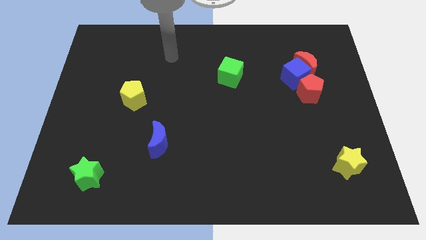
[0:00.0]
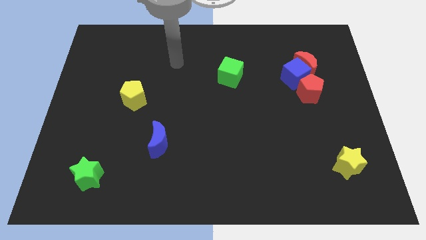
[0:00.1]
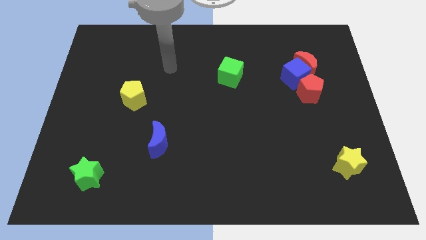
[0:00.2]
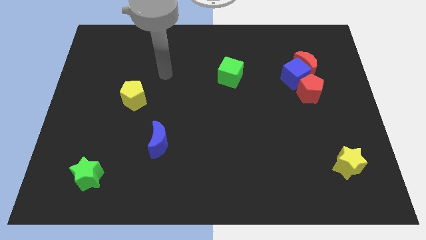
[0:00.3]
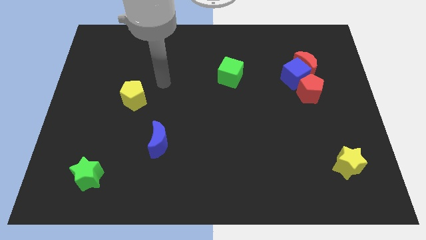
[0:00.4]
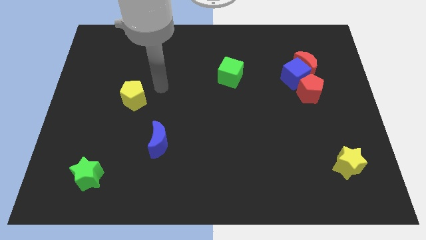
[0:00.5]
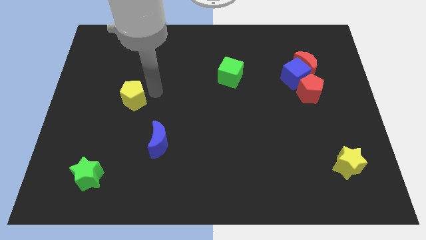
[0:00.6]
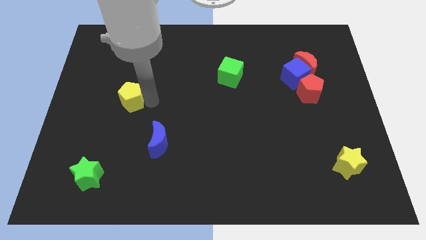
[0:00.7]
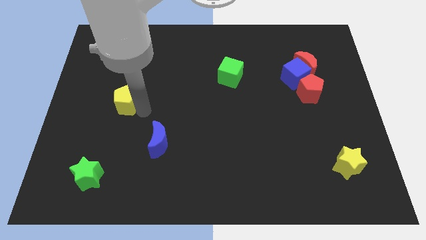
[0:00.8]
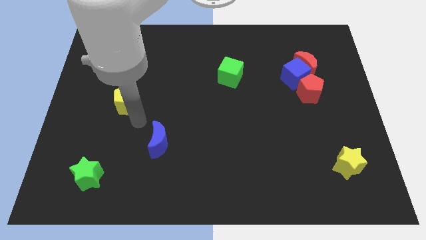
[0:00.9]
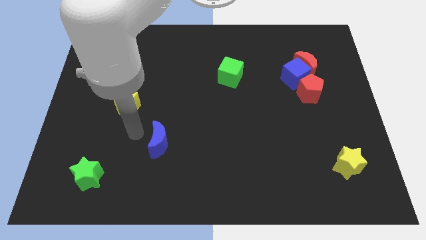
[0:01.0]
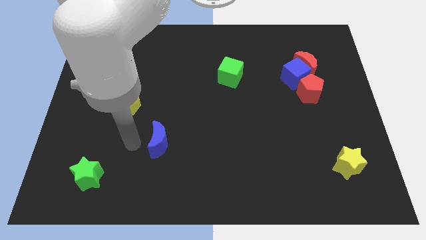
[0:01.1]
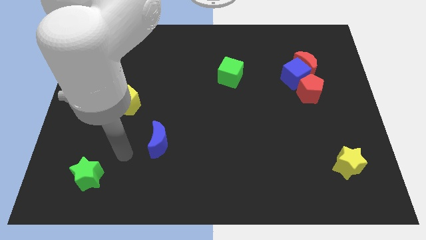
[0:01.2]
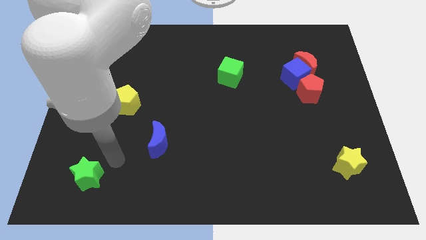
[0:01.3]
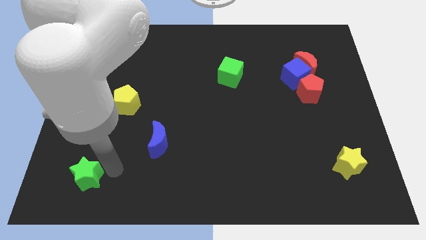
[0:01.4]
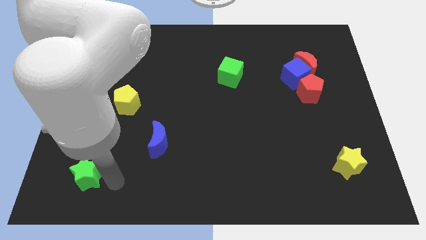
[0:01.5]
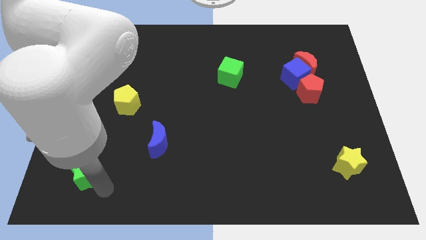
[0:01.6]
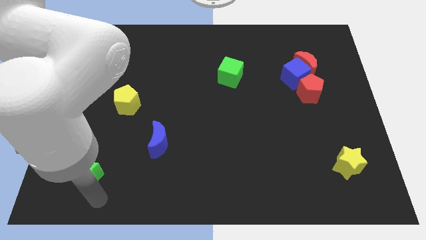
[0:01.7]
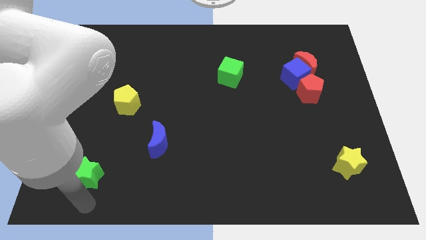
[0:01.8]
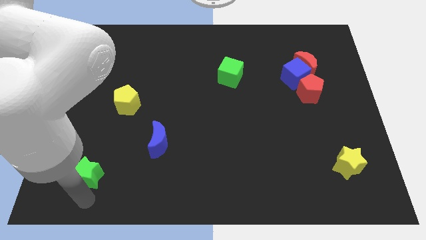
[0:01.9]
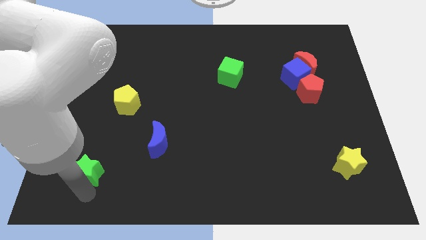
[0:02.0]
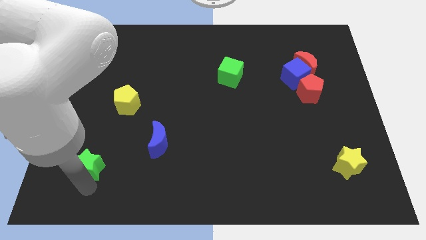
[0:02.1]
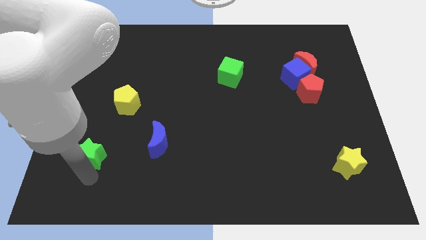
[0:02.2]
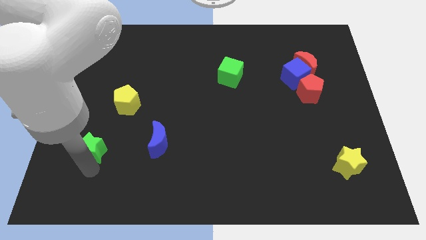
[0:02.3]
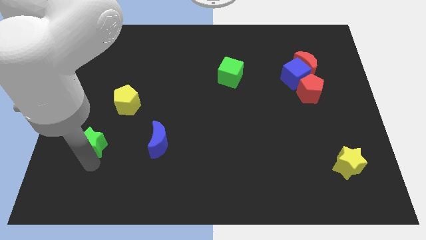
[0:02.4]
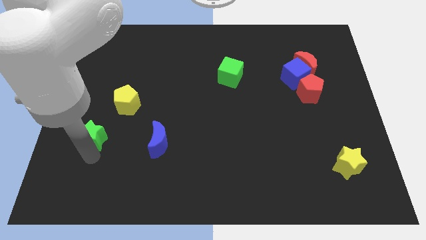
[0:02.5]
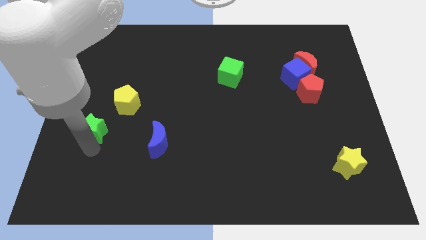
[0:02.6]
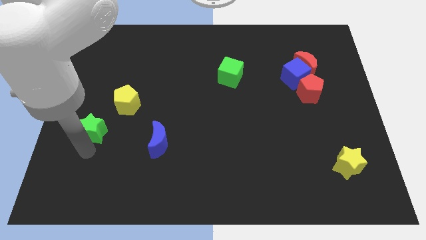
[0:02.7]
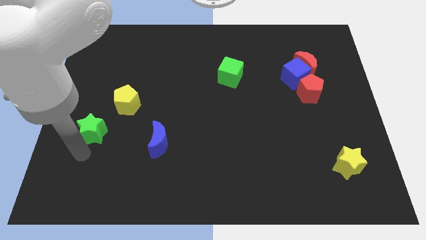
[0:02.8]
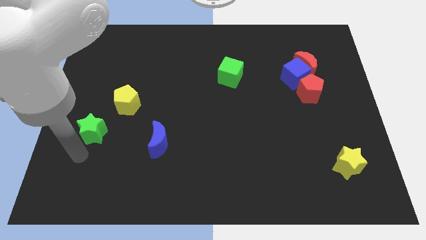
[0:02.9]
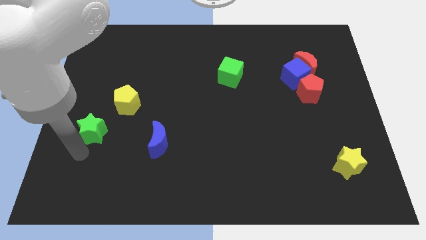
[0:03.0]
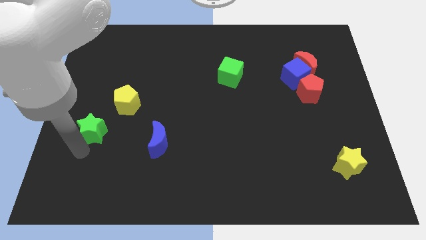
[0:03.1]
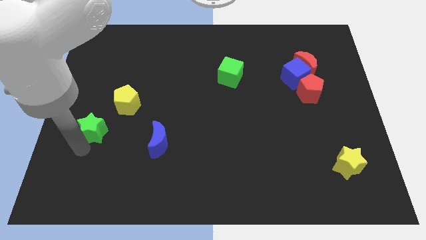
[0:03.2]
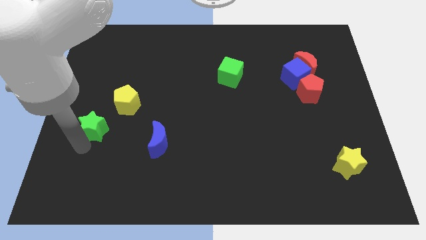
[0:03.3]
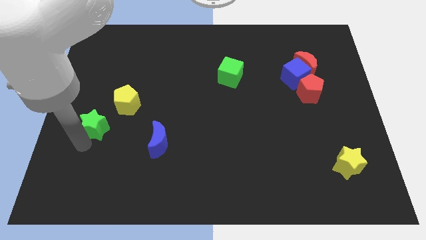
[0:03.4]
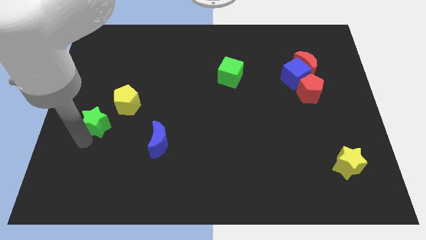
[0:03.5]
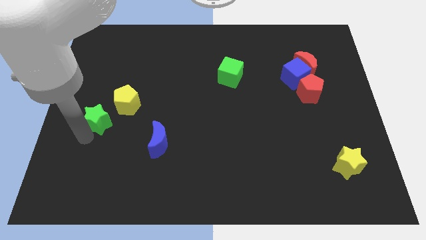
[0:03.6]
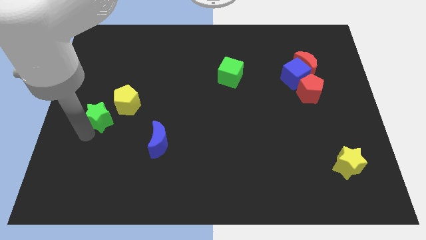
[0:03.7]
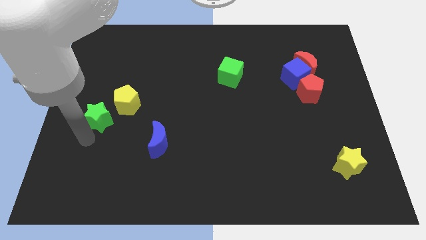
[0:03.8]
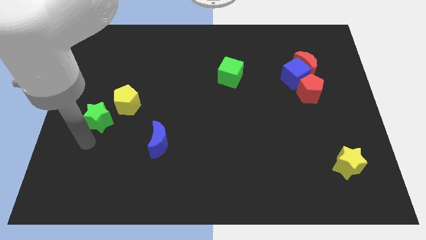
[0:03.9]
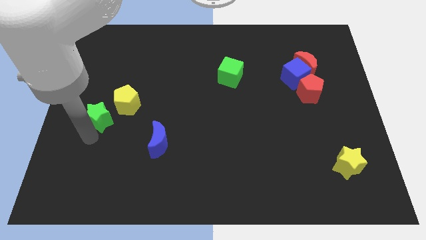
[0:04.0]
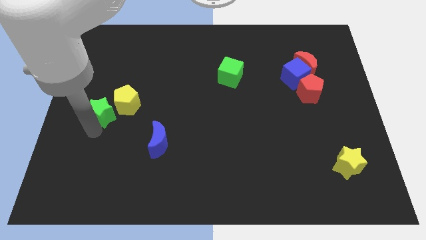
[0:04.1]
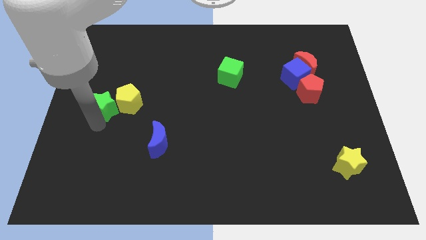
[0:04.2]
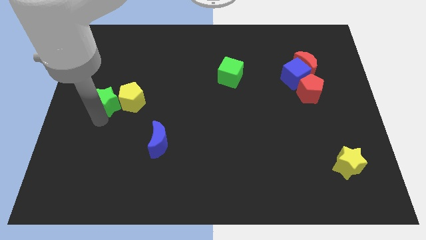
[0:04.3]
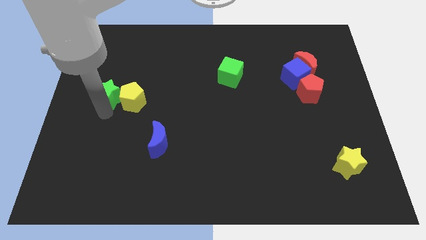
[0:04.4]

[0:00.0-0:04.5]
move the green star up

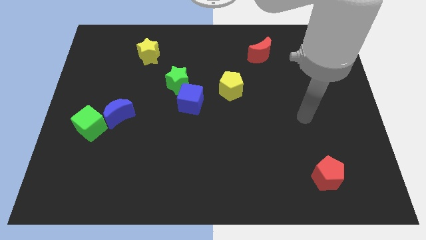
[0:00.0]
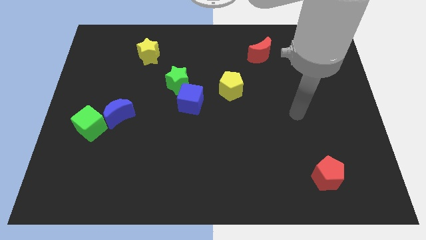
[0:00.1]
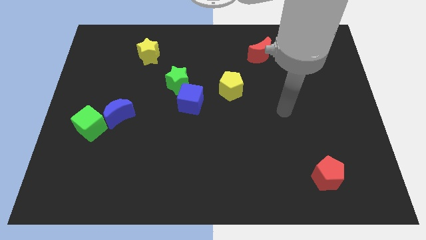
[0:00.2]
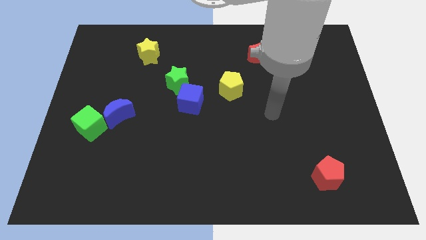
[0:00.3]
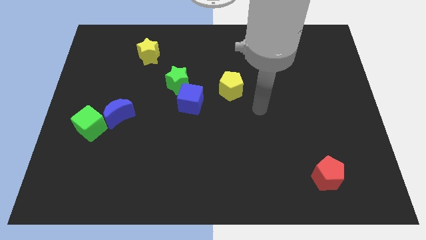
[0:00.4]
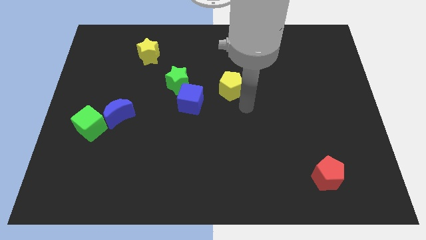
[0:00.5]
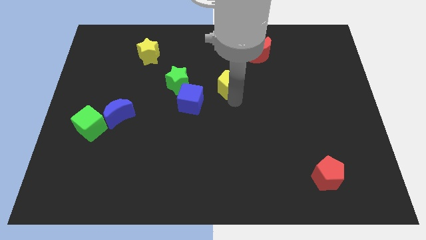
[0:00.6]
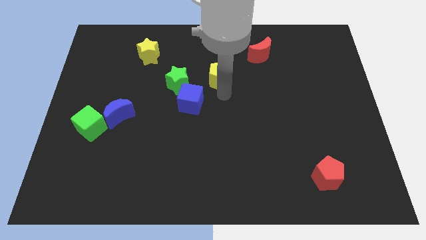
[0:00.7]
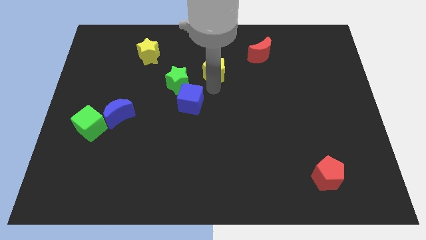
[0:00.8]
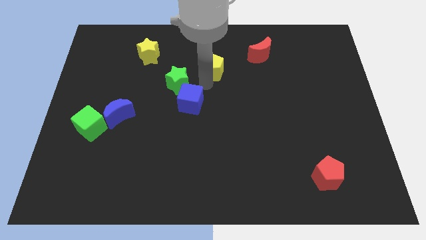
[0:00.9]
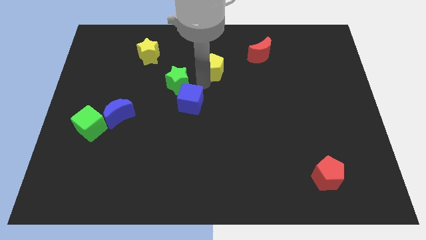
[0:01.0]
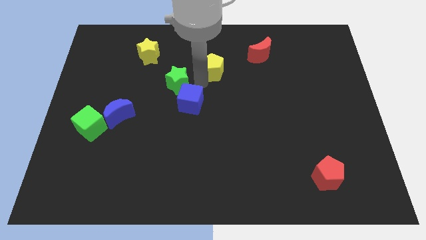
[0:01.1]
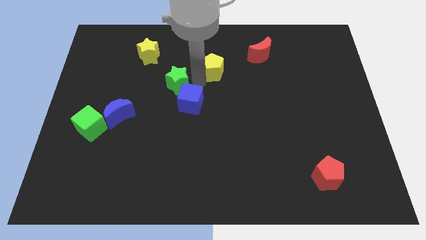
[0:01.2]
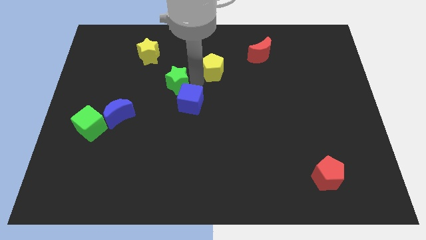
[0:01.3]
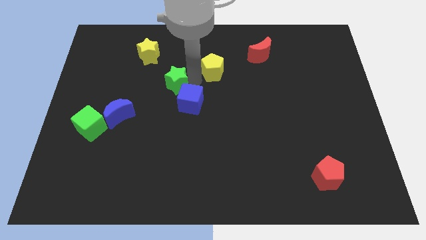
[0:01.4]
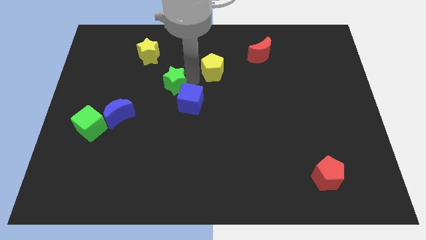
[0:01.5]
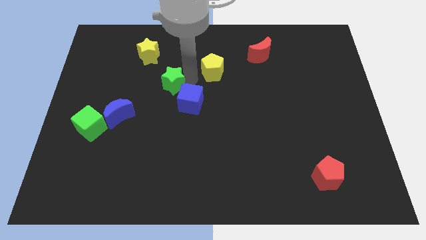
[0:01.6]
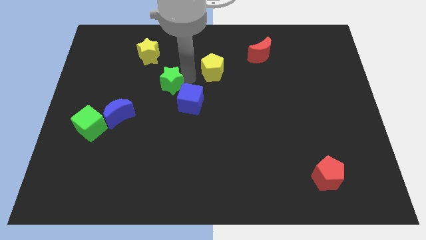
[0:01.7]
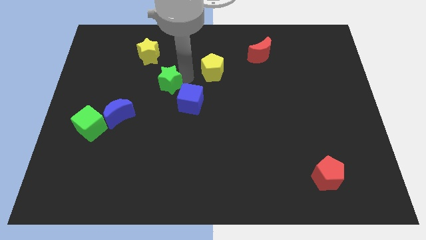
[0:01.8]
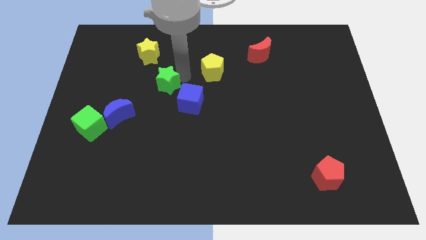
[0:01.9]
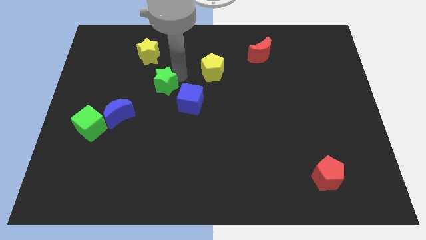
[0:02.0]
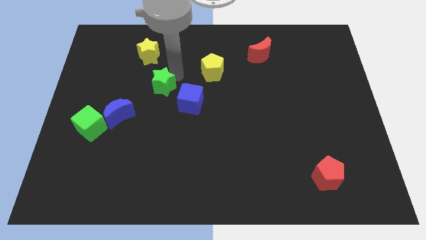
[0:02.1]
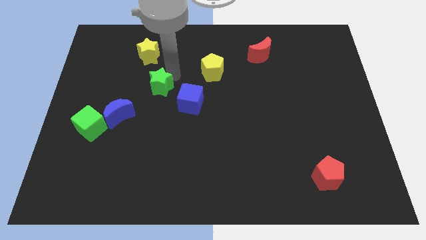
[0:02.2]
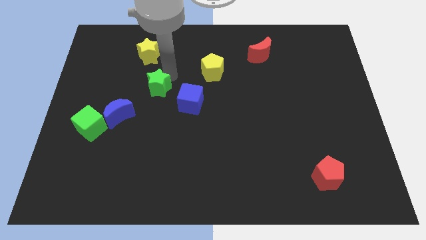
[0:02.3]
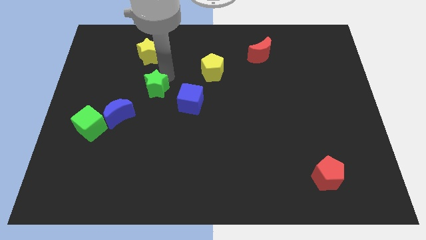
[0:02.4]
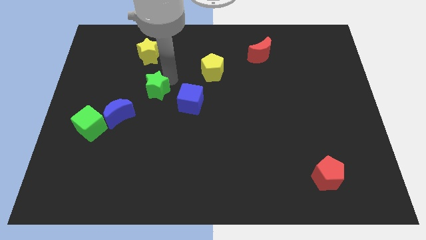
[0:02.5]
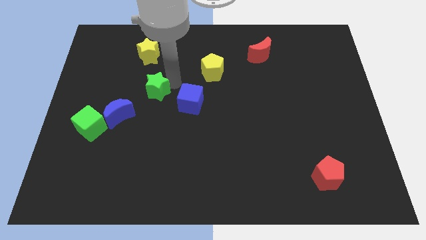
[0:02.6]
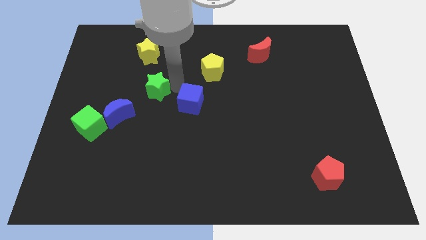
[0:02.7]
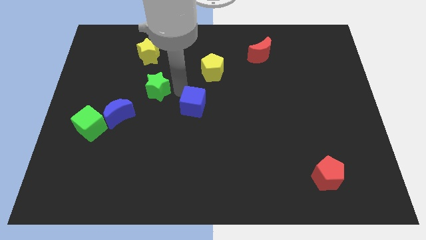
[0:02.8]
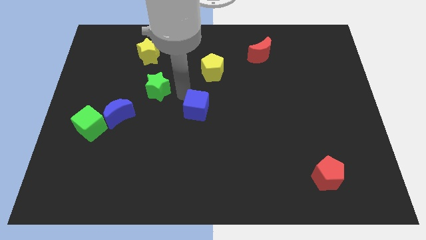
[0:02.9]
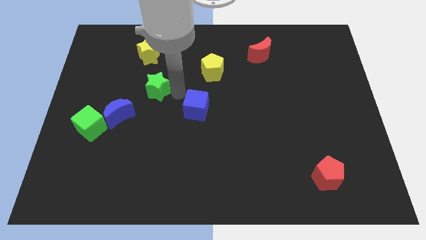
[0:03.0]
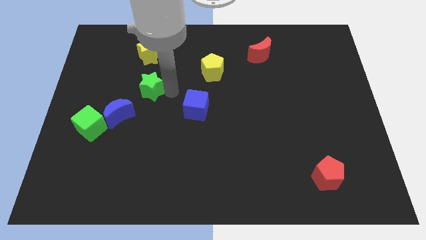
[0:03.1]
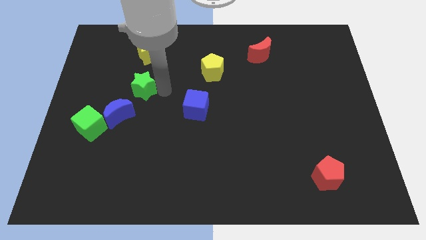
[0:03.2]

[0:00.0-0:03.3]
slide the green star to the left a little bit
